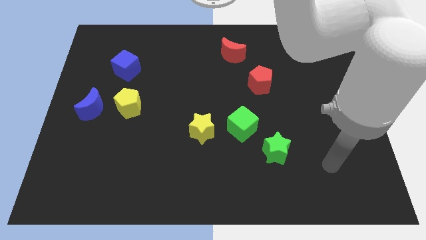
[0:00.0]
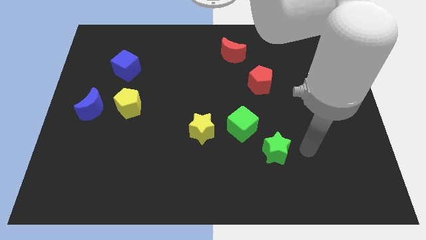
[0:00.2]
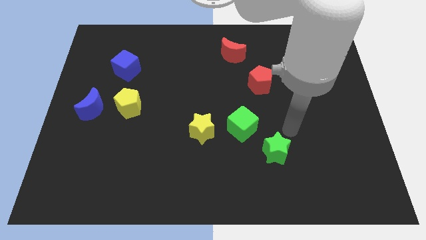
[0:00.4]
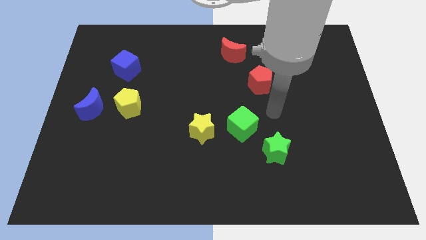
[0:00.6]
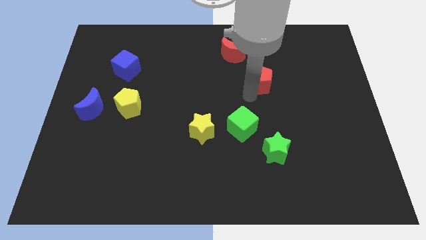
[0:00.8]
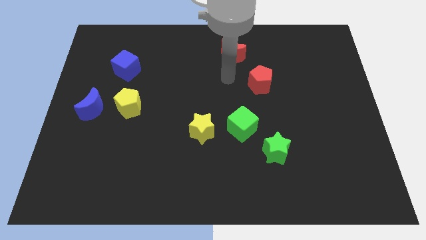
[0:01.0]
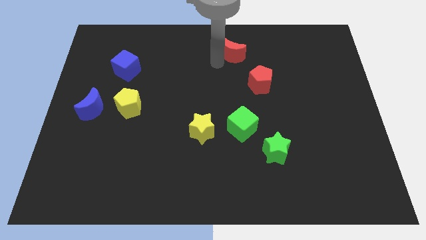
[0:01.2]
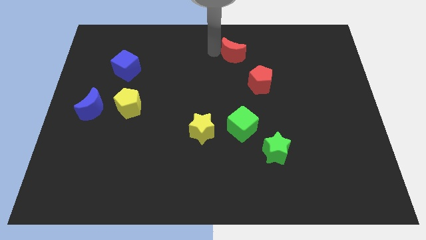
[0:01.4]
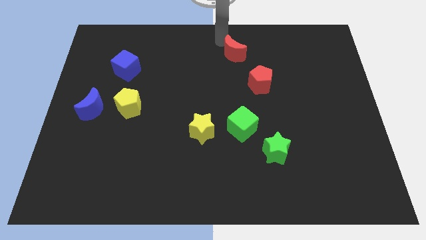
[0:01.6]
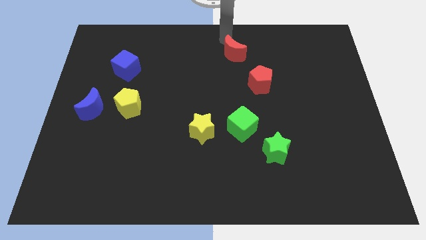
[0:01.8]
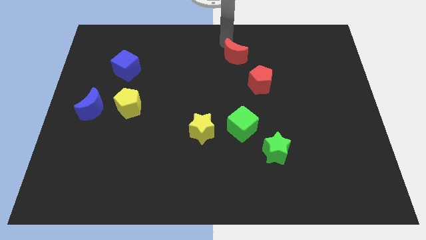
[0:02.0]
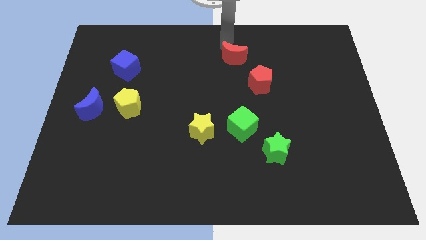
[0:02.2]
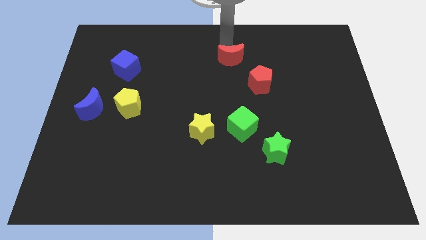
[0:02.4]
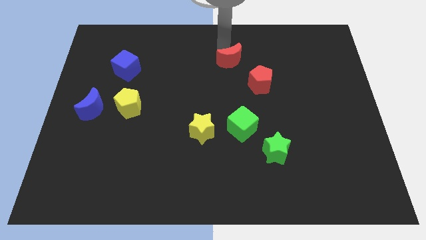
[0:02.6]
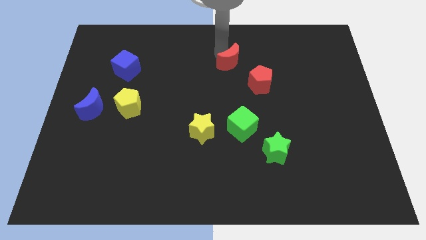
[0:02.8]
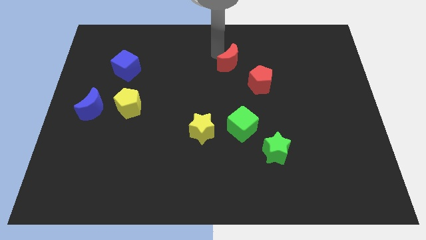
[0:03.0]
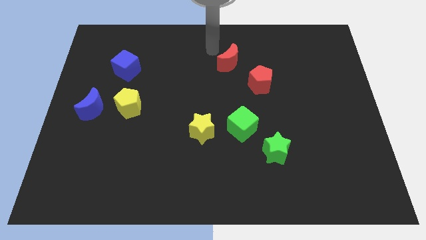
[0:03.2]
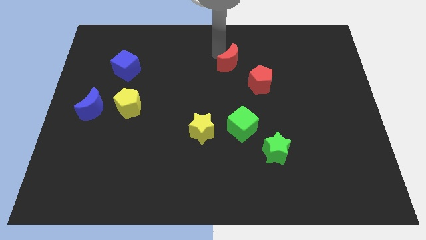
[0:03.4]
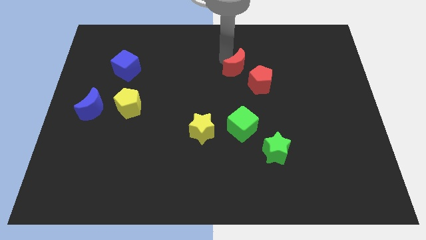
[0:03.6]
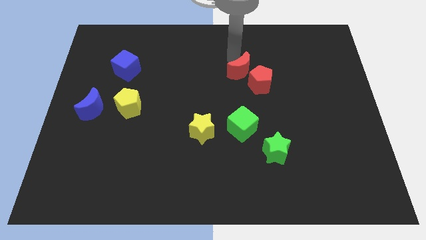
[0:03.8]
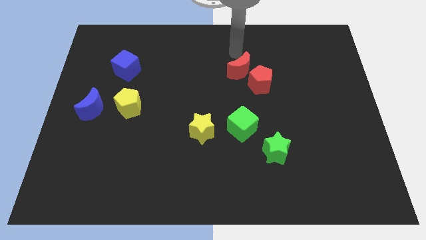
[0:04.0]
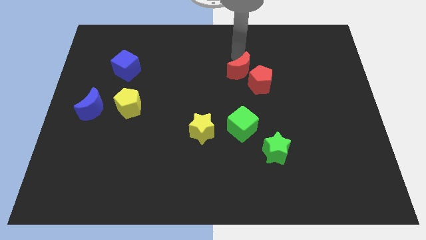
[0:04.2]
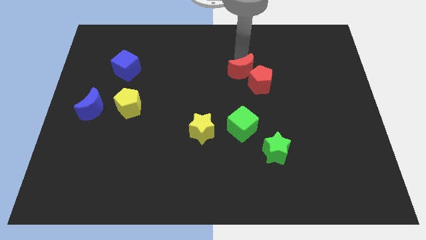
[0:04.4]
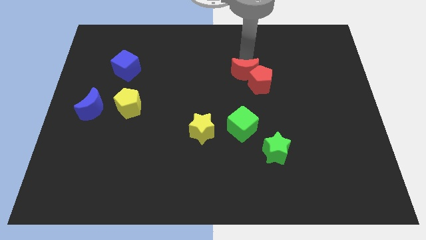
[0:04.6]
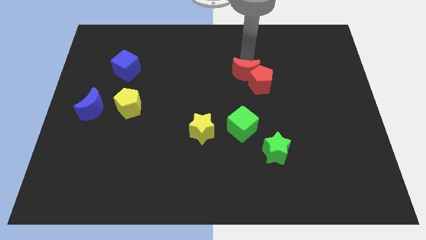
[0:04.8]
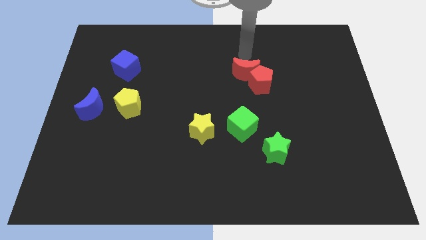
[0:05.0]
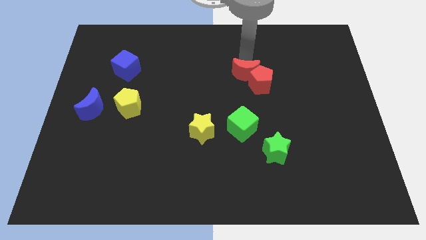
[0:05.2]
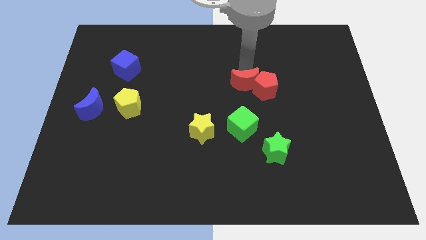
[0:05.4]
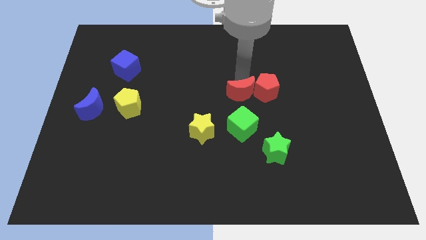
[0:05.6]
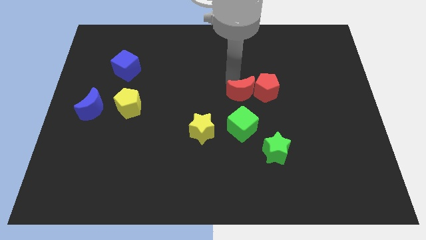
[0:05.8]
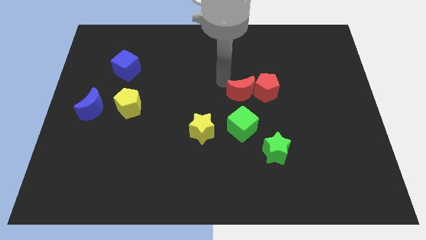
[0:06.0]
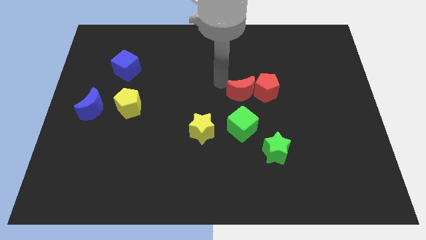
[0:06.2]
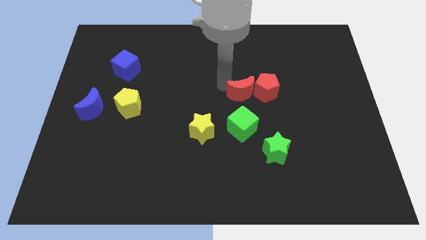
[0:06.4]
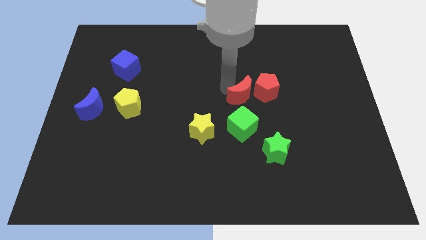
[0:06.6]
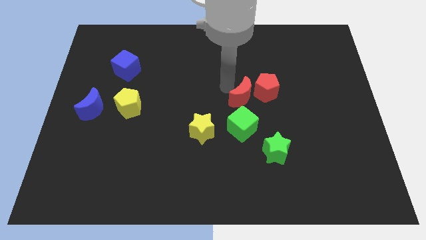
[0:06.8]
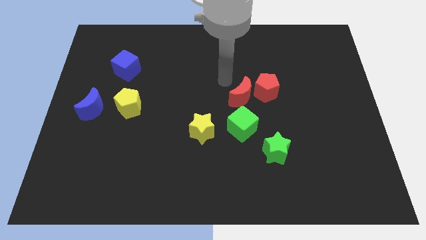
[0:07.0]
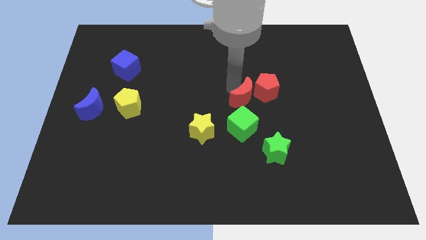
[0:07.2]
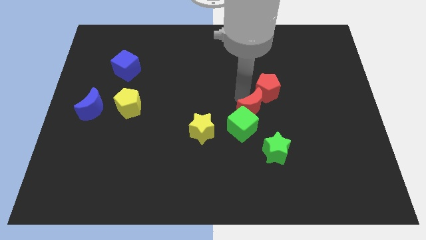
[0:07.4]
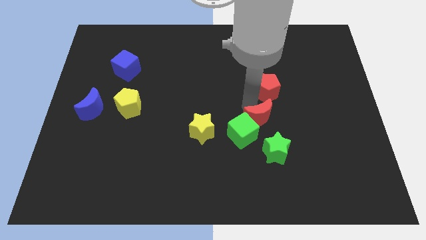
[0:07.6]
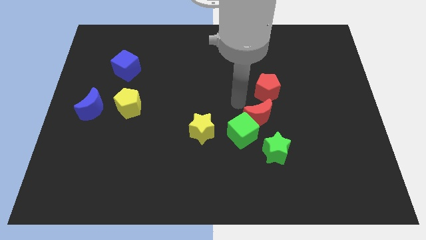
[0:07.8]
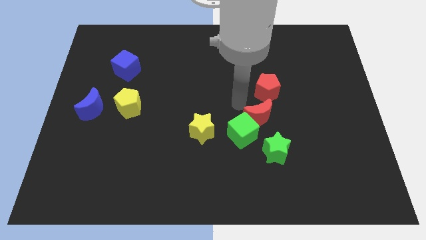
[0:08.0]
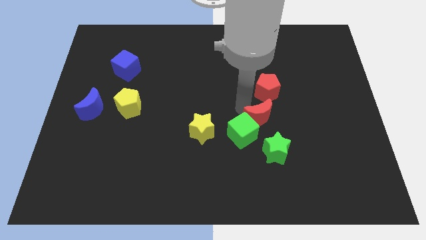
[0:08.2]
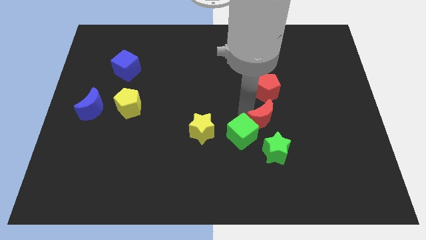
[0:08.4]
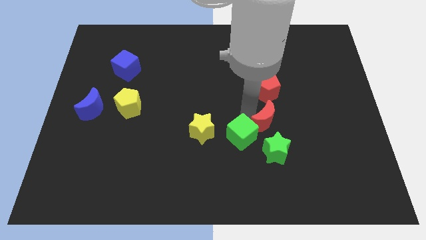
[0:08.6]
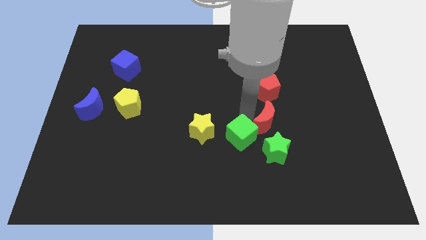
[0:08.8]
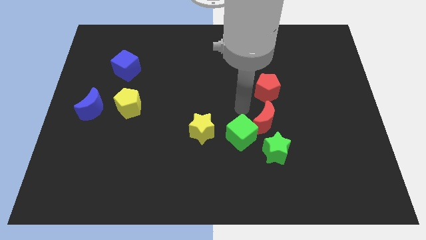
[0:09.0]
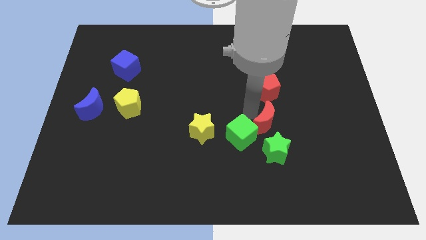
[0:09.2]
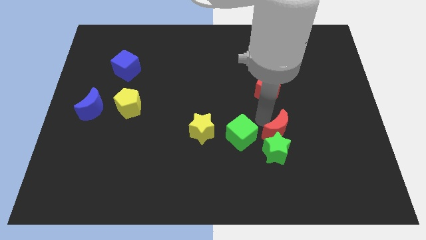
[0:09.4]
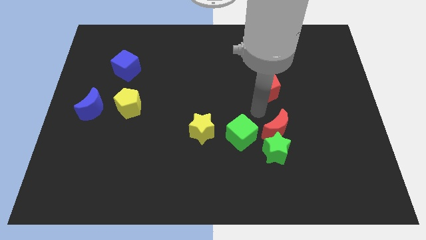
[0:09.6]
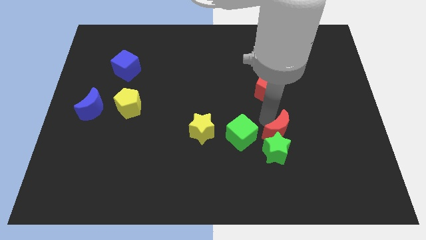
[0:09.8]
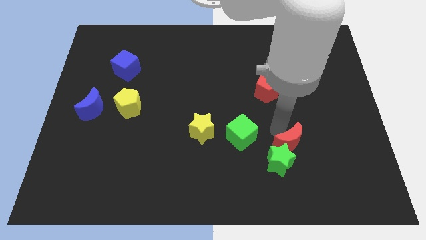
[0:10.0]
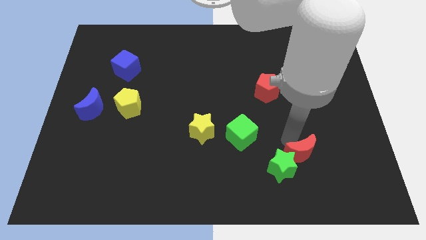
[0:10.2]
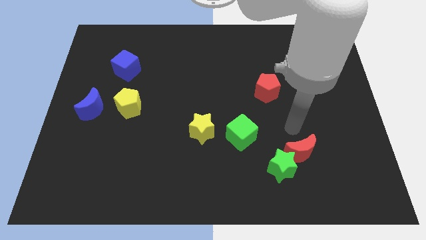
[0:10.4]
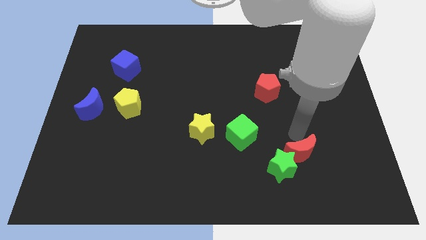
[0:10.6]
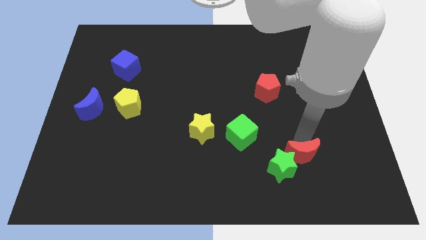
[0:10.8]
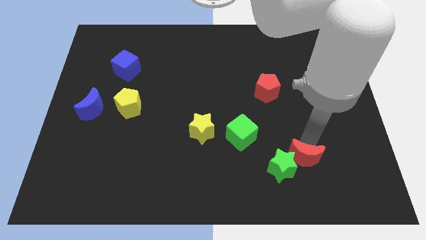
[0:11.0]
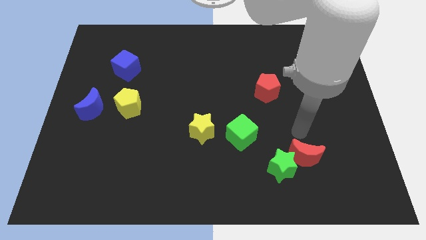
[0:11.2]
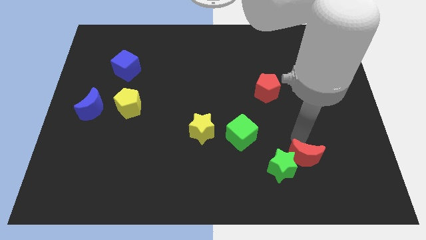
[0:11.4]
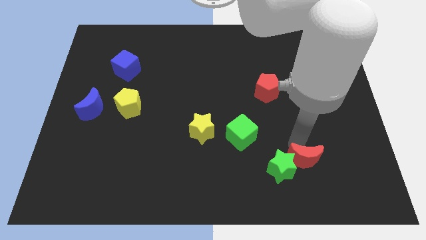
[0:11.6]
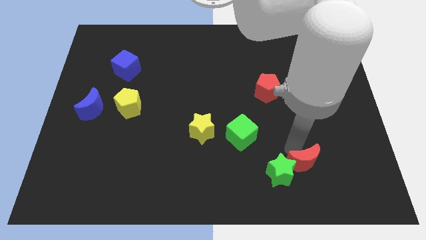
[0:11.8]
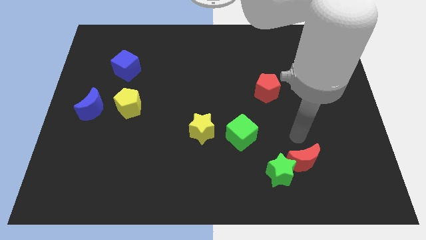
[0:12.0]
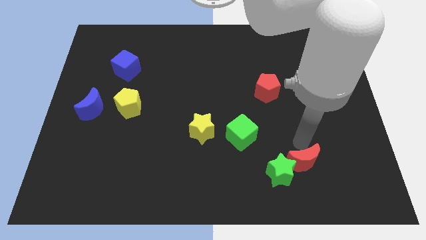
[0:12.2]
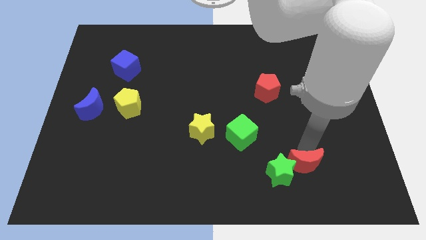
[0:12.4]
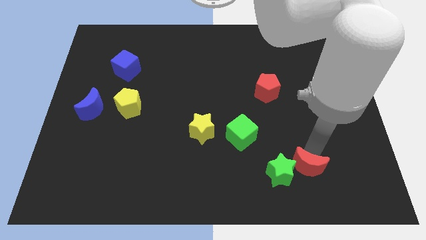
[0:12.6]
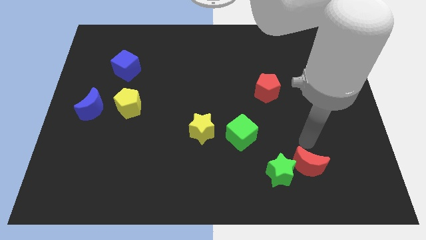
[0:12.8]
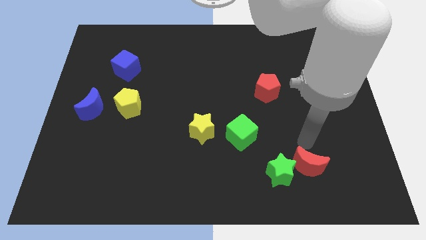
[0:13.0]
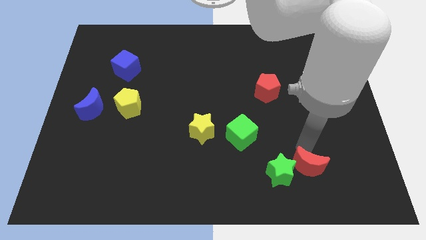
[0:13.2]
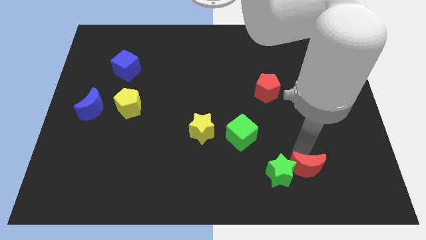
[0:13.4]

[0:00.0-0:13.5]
slide the red moon to the bottom right of the green star
